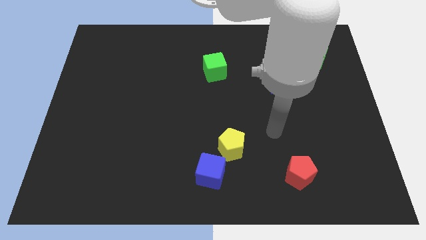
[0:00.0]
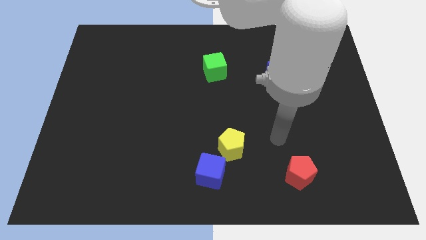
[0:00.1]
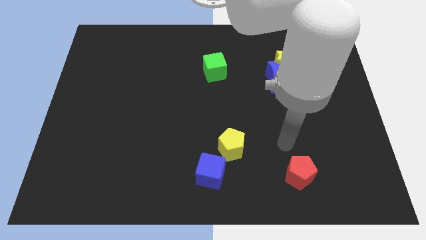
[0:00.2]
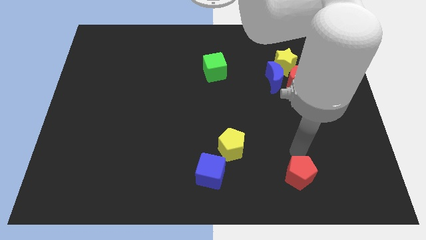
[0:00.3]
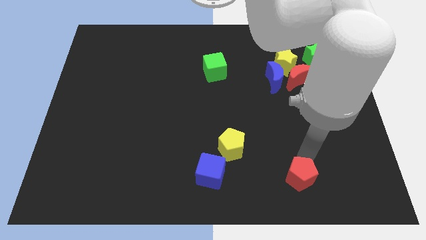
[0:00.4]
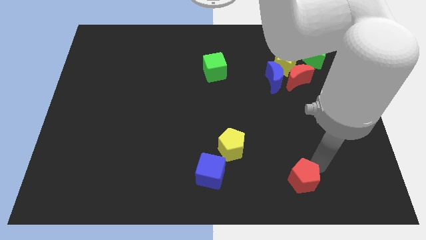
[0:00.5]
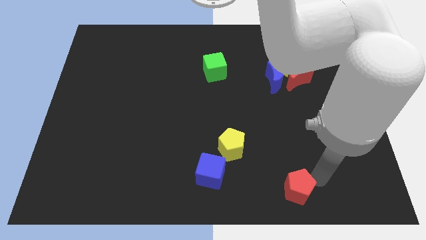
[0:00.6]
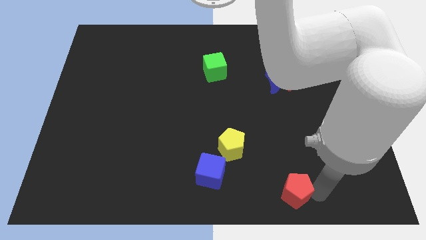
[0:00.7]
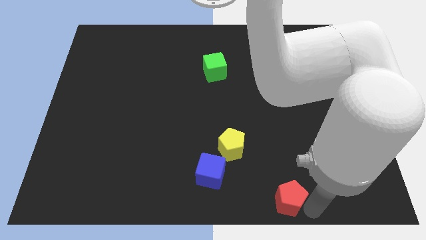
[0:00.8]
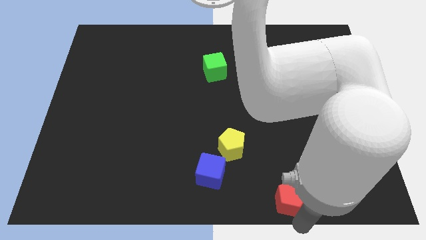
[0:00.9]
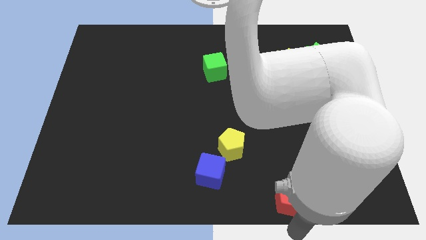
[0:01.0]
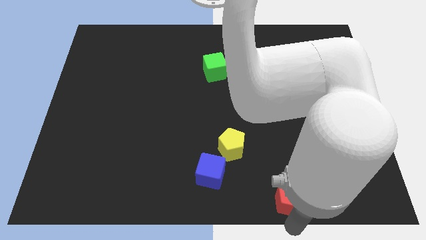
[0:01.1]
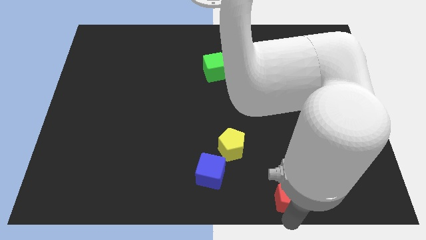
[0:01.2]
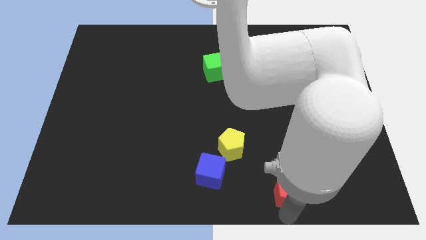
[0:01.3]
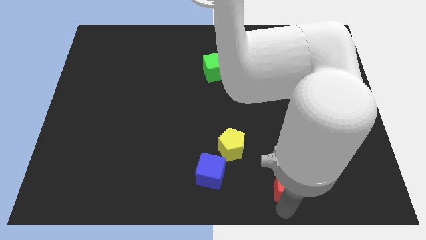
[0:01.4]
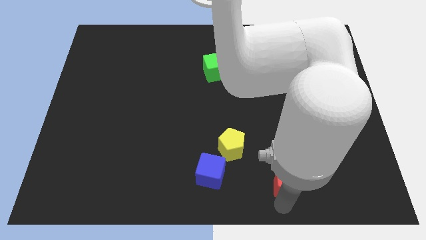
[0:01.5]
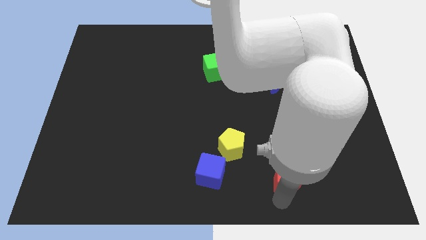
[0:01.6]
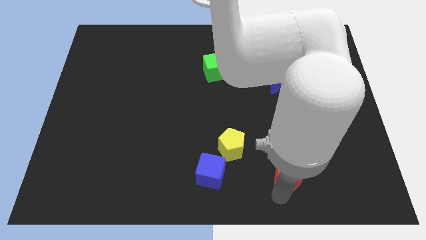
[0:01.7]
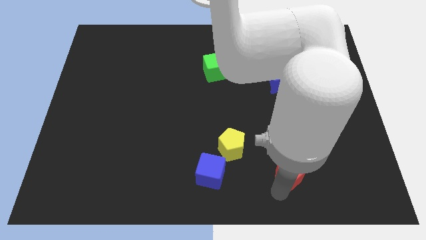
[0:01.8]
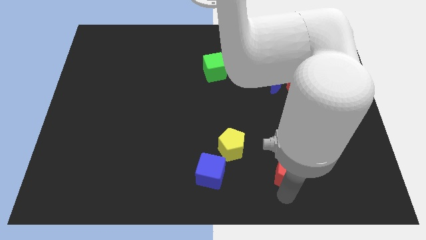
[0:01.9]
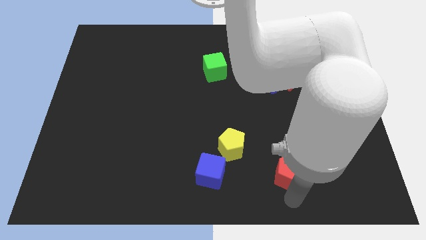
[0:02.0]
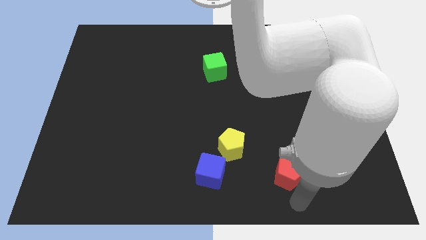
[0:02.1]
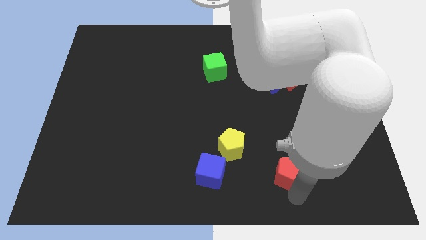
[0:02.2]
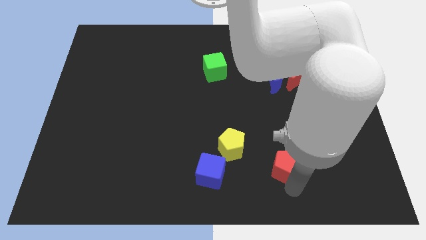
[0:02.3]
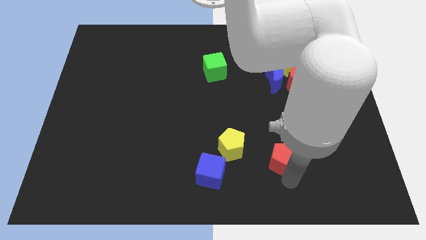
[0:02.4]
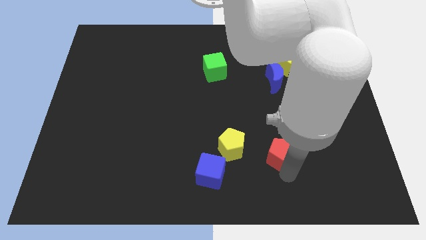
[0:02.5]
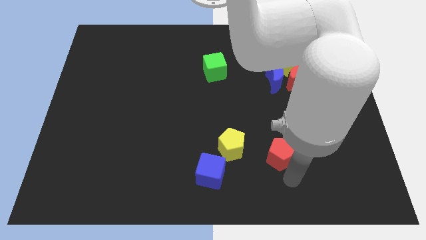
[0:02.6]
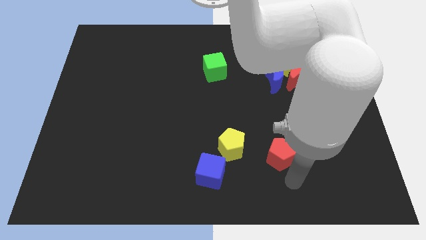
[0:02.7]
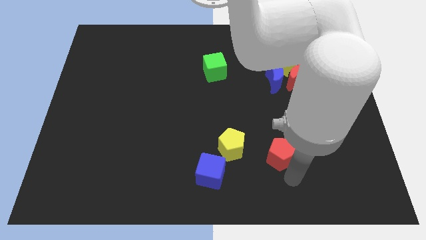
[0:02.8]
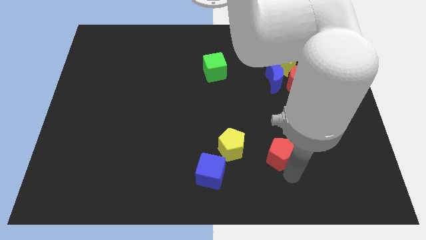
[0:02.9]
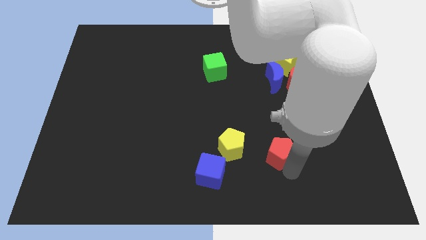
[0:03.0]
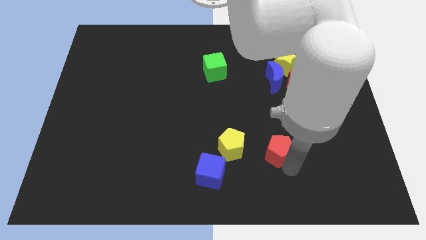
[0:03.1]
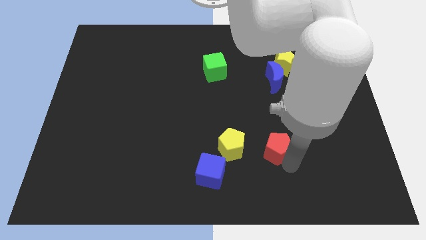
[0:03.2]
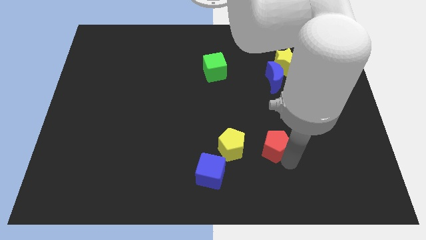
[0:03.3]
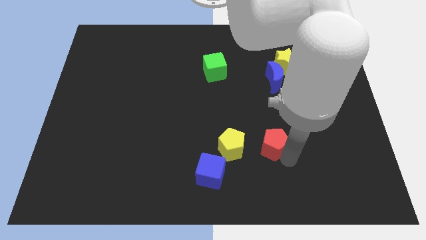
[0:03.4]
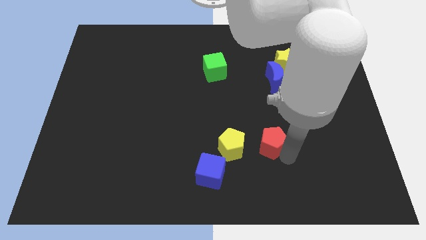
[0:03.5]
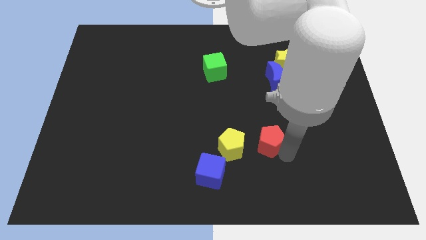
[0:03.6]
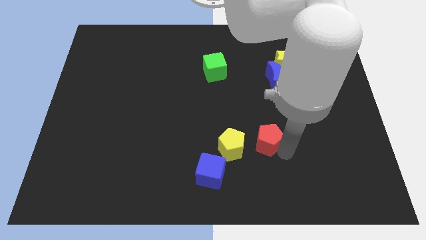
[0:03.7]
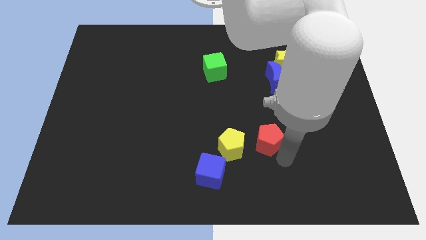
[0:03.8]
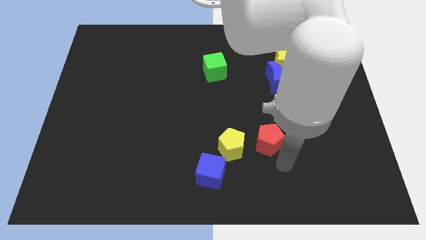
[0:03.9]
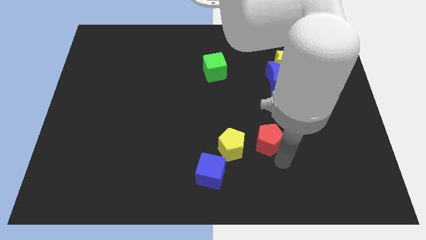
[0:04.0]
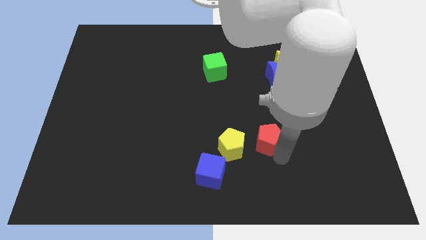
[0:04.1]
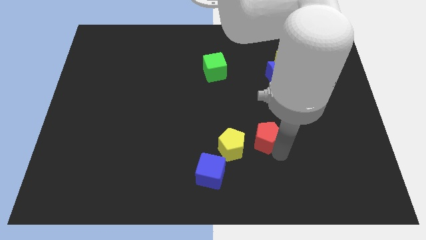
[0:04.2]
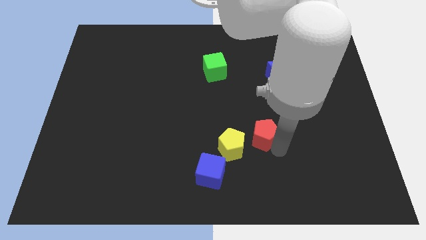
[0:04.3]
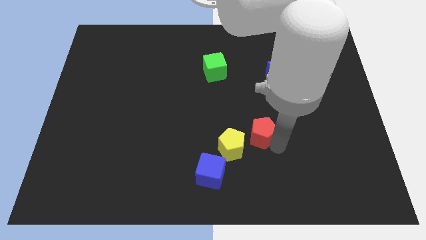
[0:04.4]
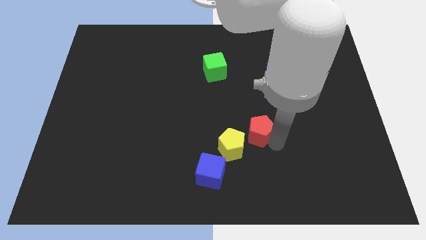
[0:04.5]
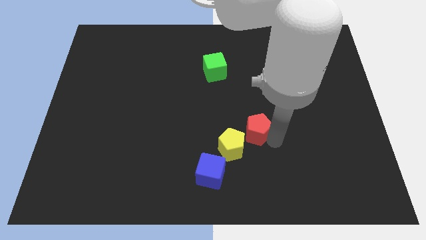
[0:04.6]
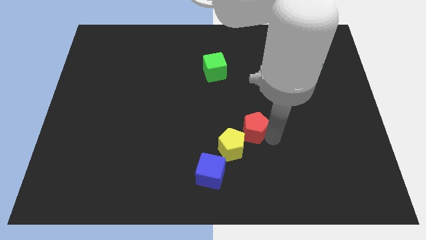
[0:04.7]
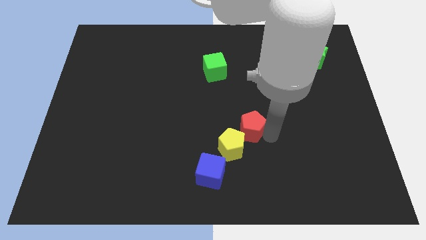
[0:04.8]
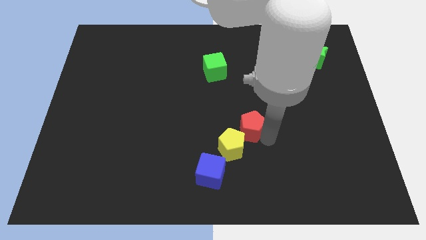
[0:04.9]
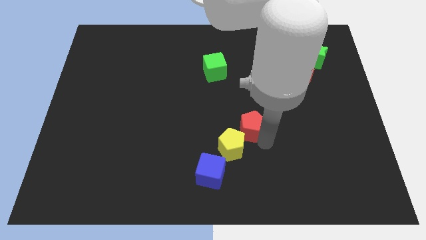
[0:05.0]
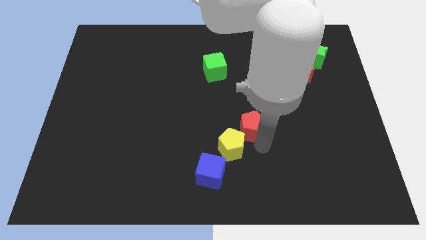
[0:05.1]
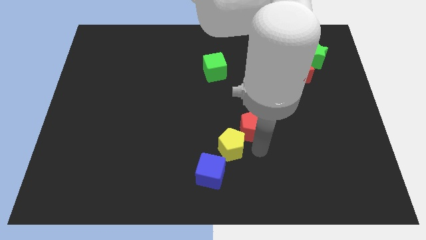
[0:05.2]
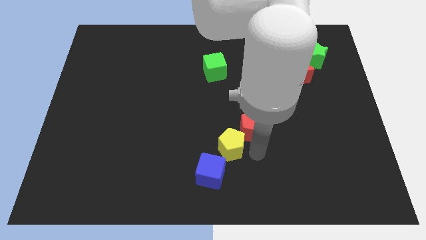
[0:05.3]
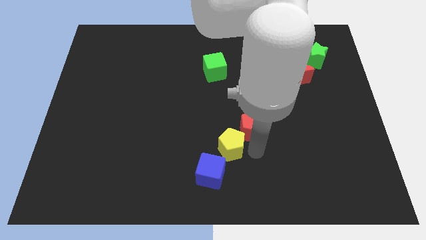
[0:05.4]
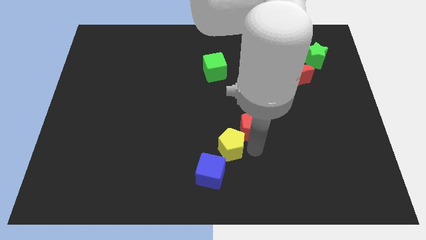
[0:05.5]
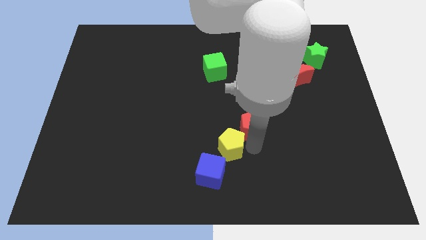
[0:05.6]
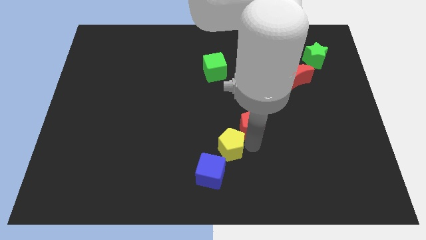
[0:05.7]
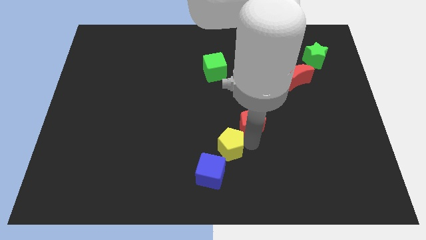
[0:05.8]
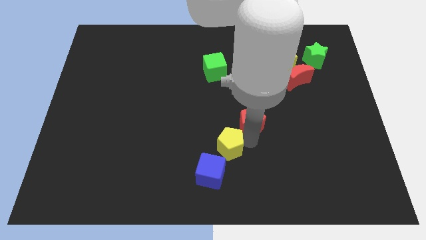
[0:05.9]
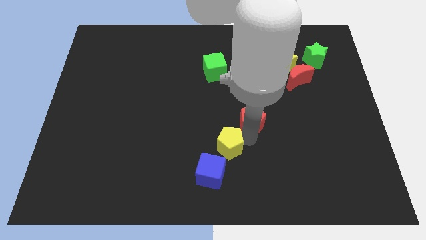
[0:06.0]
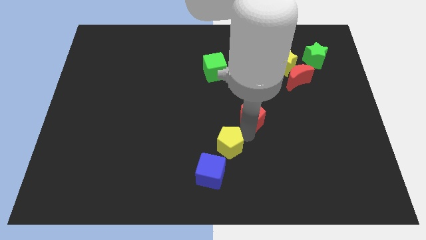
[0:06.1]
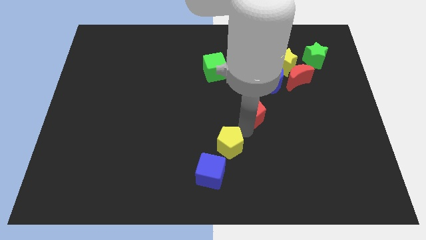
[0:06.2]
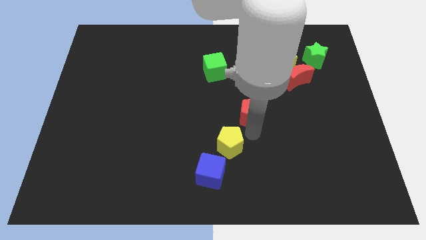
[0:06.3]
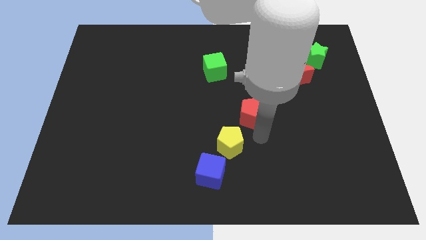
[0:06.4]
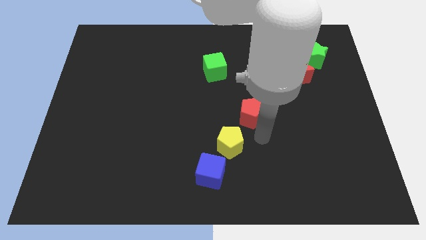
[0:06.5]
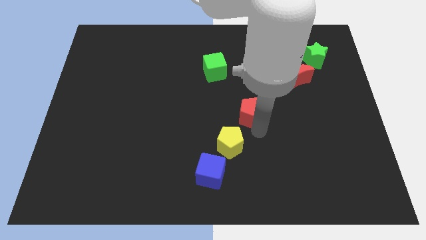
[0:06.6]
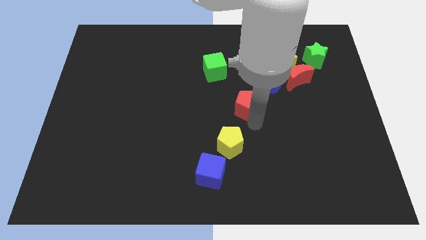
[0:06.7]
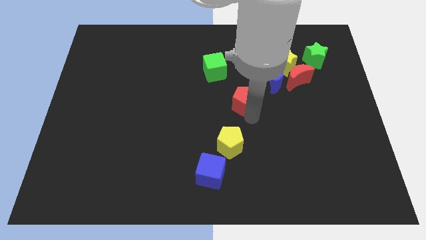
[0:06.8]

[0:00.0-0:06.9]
move the red pentagon to the bottom right of the green cube
